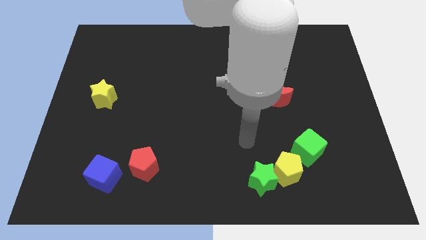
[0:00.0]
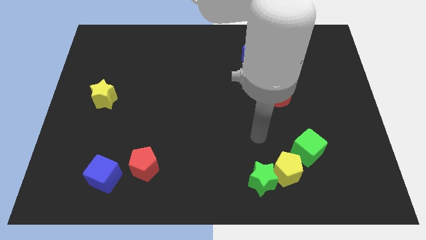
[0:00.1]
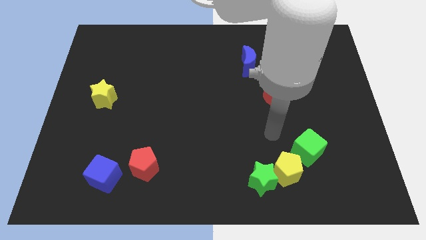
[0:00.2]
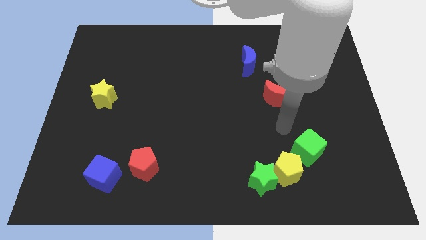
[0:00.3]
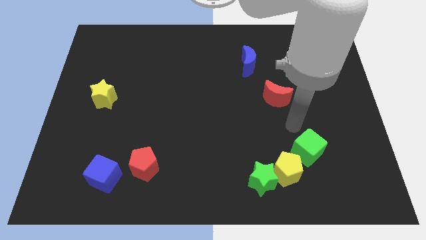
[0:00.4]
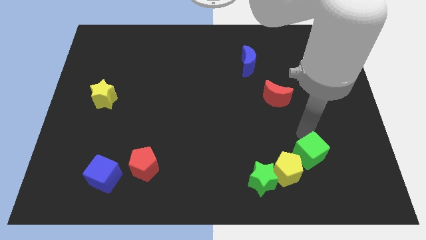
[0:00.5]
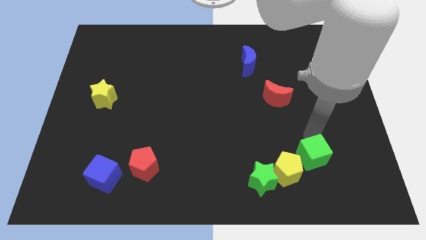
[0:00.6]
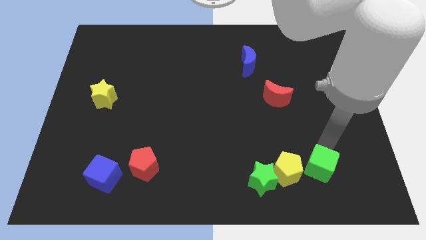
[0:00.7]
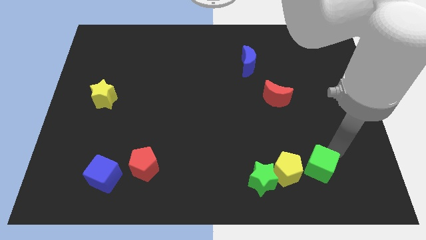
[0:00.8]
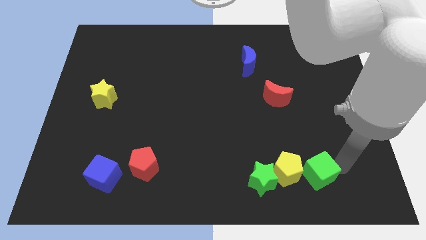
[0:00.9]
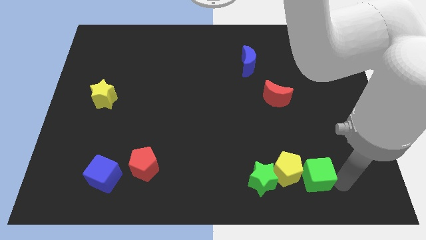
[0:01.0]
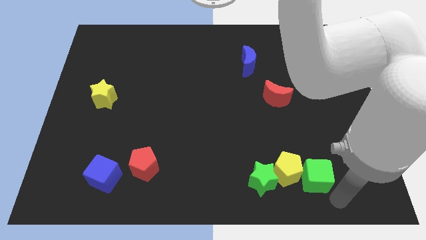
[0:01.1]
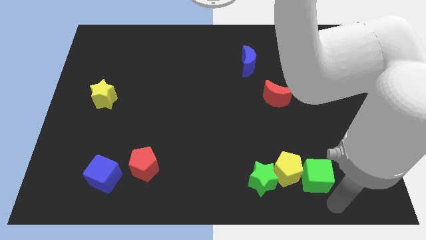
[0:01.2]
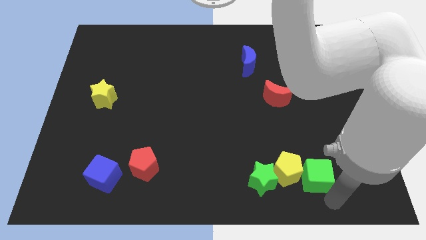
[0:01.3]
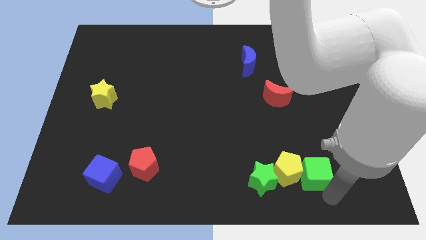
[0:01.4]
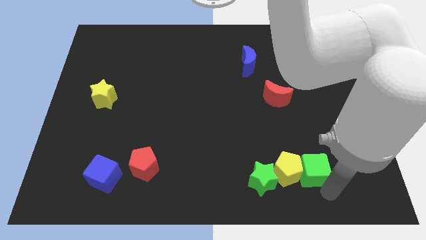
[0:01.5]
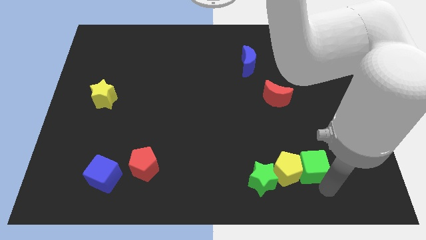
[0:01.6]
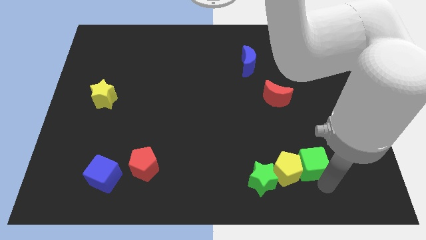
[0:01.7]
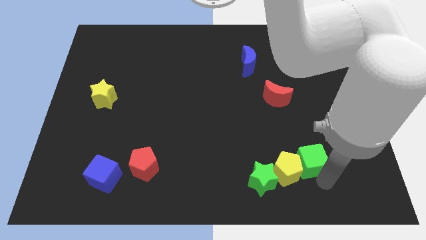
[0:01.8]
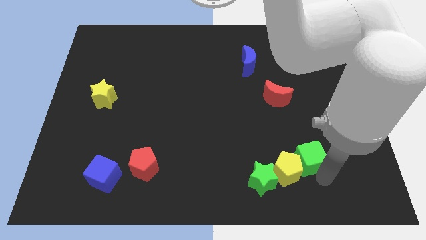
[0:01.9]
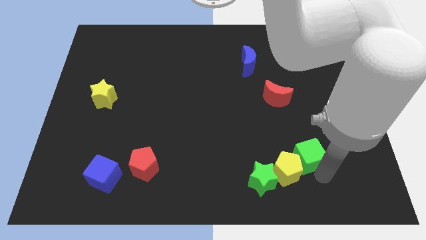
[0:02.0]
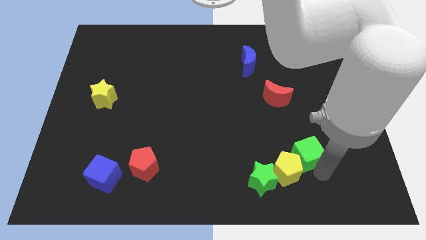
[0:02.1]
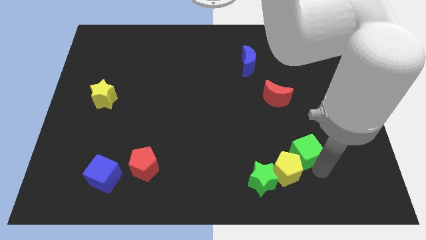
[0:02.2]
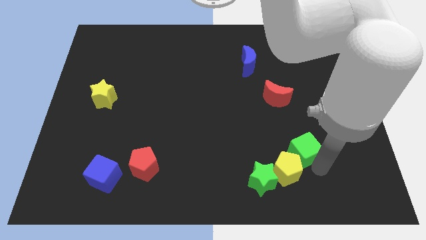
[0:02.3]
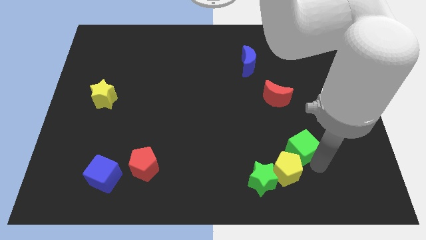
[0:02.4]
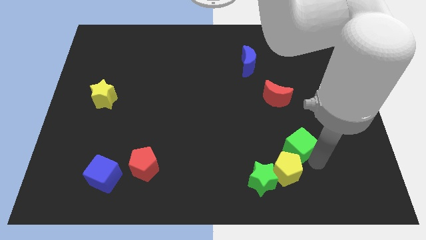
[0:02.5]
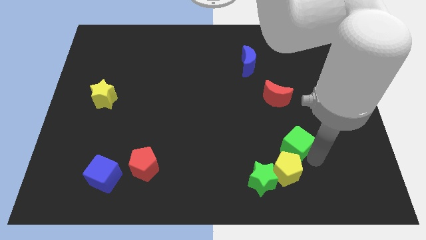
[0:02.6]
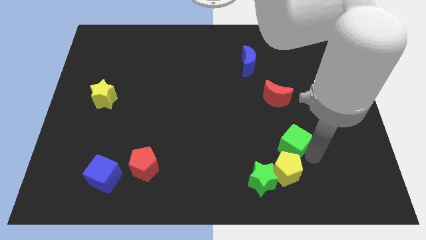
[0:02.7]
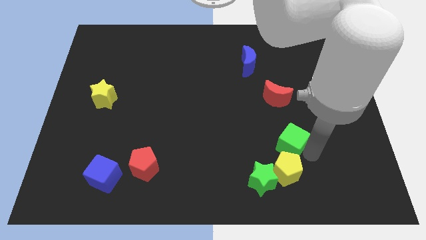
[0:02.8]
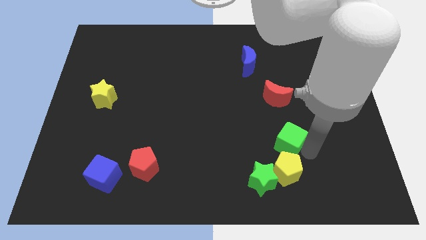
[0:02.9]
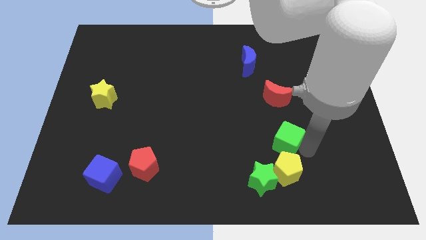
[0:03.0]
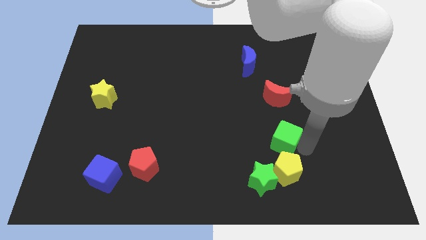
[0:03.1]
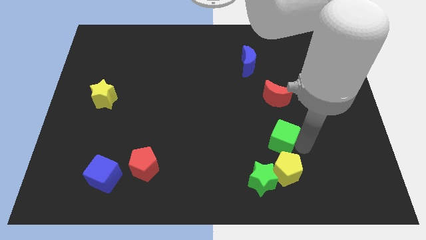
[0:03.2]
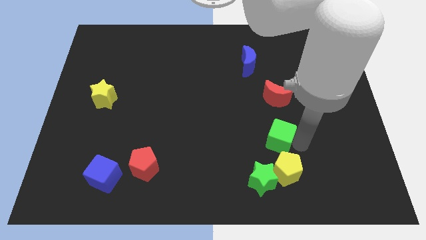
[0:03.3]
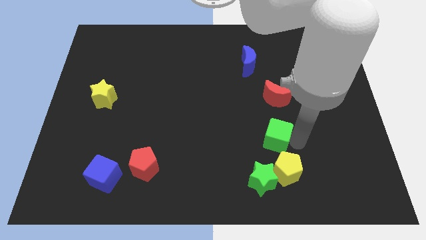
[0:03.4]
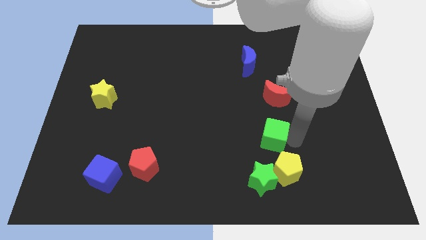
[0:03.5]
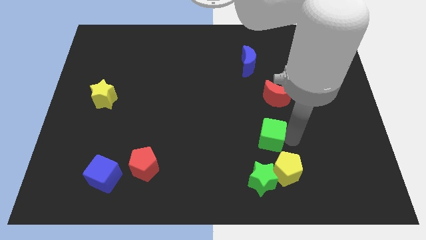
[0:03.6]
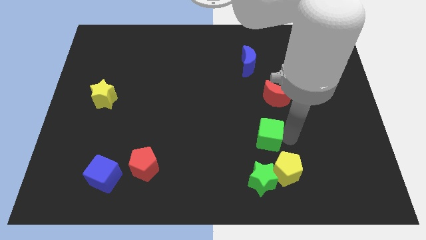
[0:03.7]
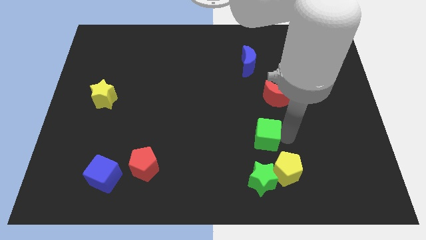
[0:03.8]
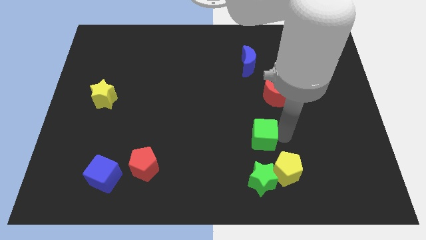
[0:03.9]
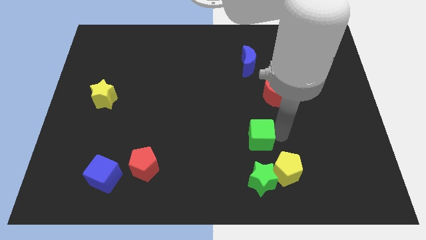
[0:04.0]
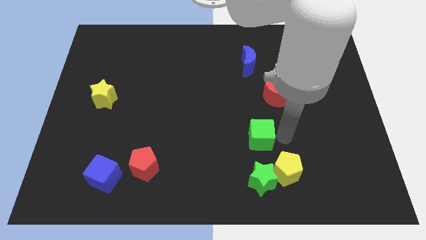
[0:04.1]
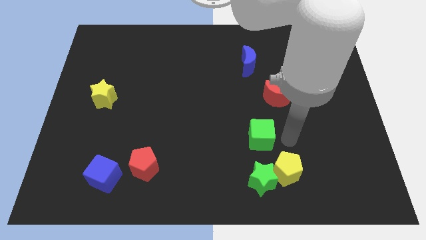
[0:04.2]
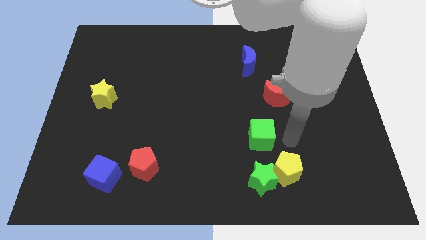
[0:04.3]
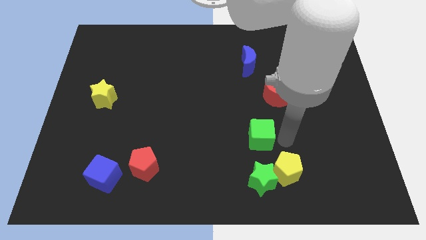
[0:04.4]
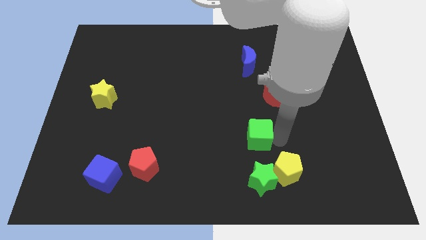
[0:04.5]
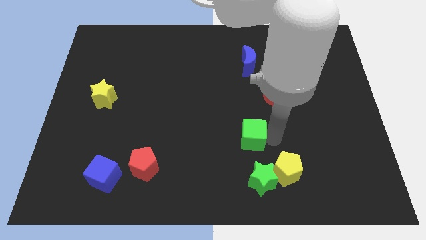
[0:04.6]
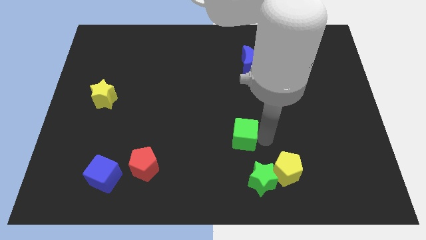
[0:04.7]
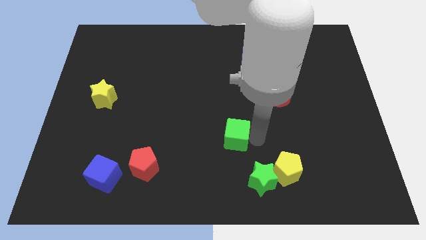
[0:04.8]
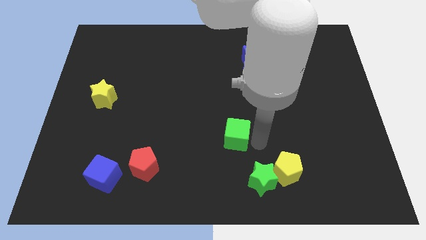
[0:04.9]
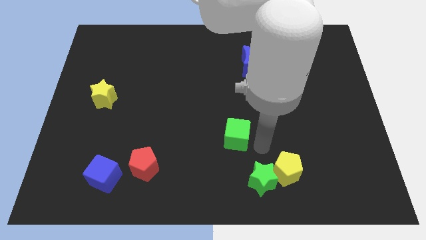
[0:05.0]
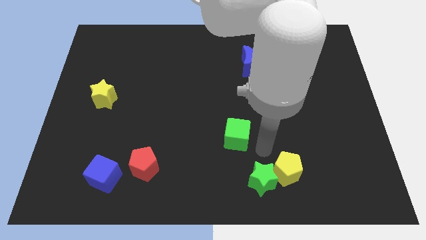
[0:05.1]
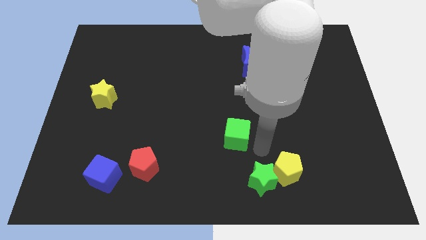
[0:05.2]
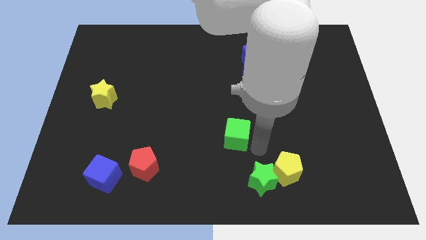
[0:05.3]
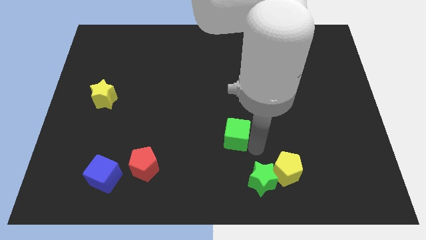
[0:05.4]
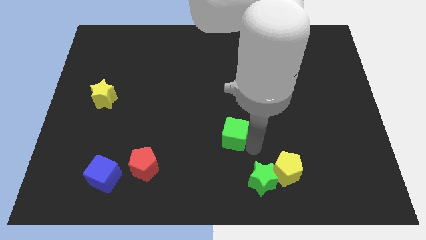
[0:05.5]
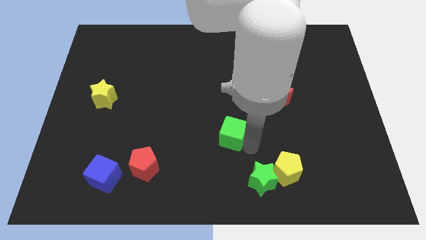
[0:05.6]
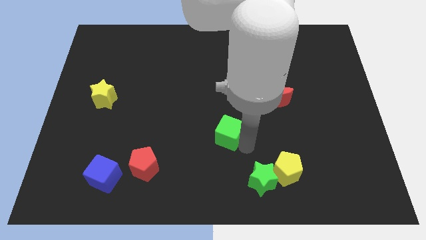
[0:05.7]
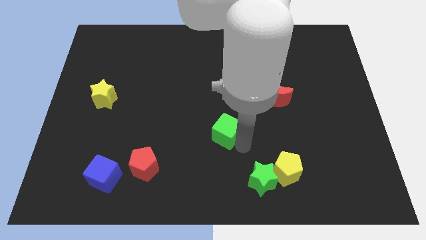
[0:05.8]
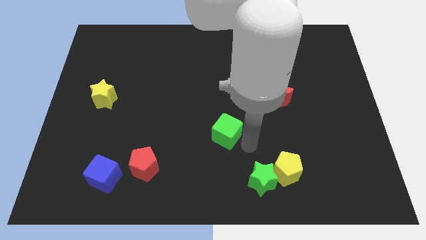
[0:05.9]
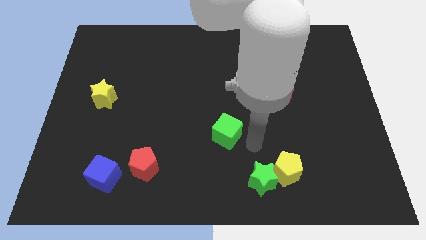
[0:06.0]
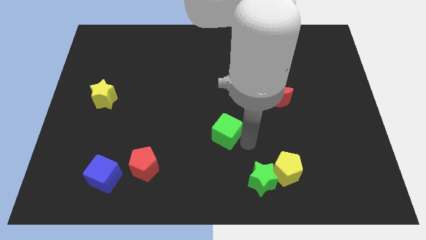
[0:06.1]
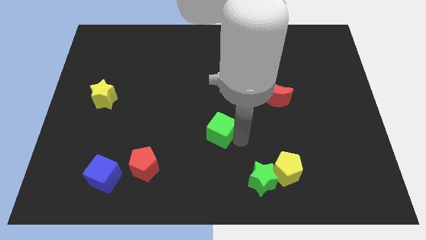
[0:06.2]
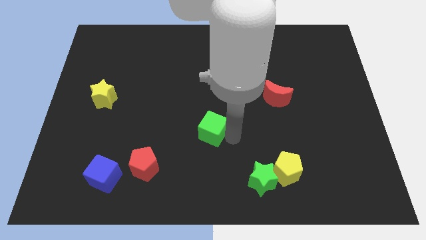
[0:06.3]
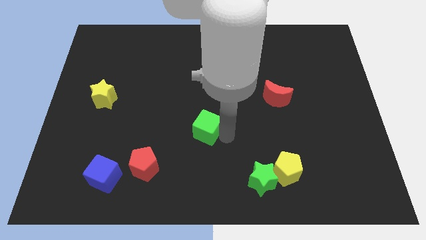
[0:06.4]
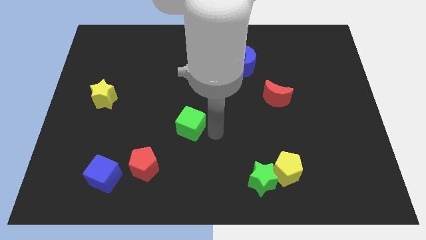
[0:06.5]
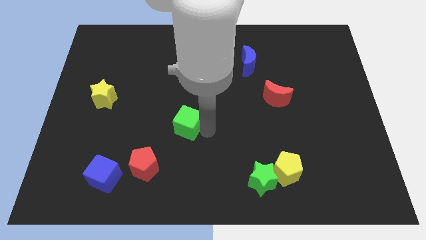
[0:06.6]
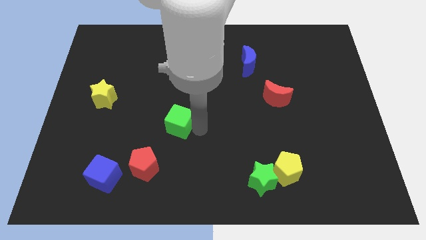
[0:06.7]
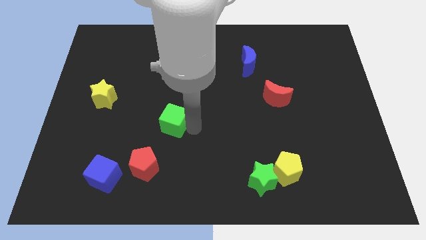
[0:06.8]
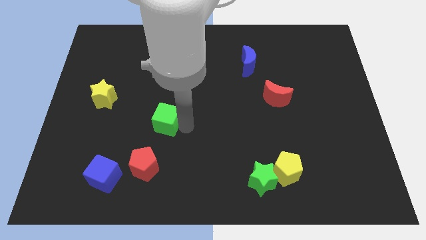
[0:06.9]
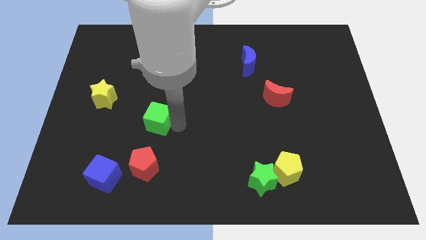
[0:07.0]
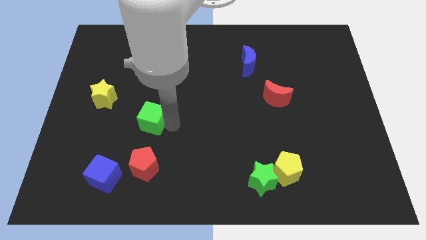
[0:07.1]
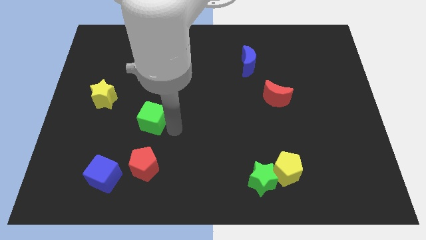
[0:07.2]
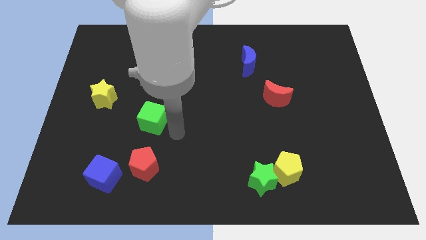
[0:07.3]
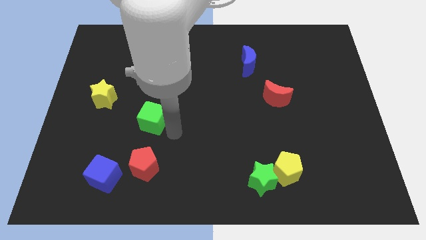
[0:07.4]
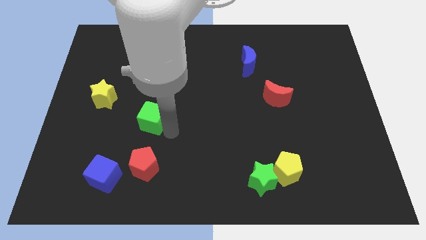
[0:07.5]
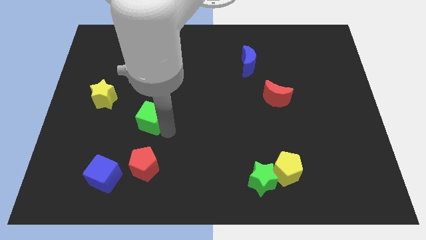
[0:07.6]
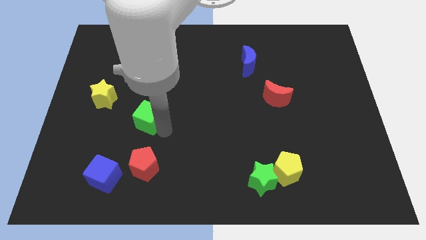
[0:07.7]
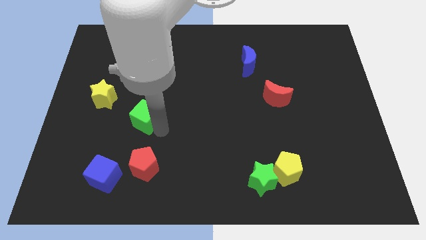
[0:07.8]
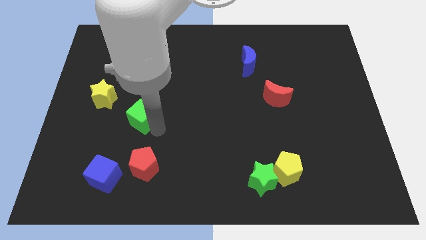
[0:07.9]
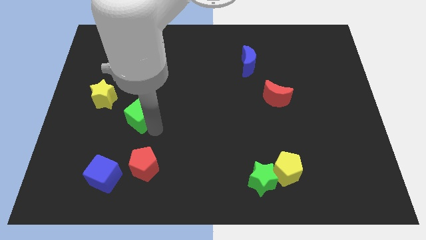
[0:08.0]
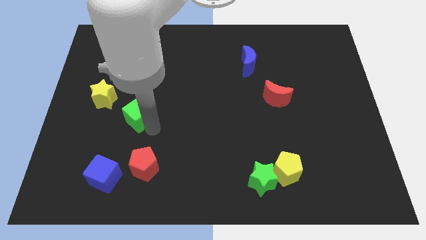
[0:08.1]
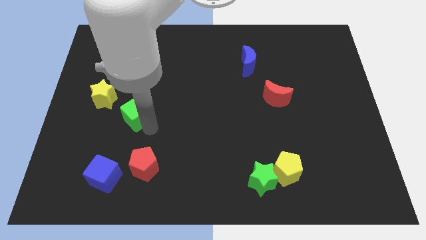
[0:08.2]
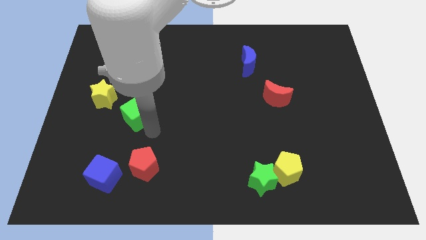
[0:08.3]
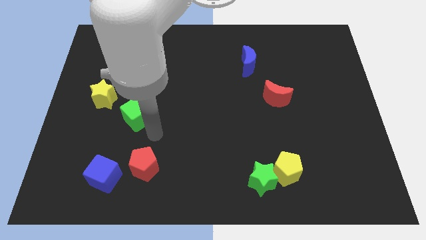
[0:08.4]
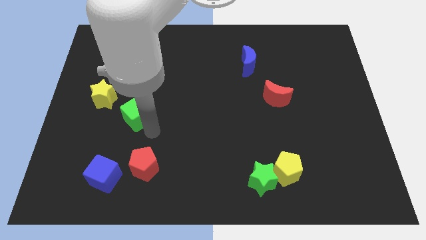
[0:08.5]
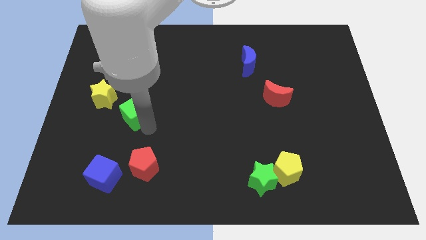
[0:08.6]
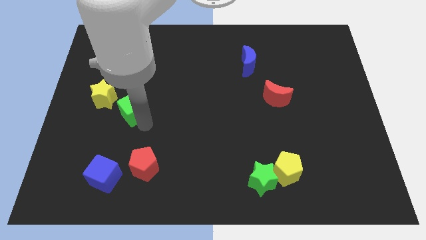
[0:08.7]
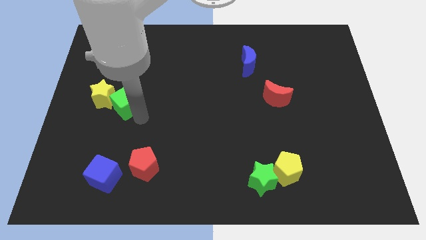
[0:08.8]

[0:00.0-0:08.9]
slide the green cube next to the yellow star
